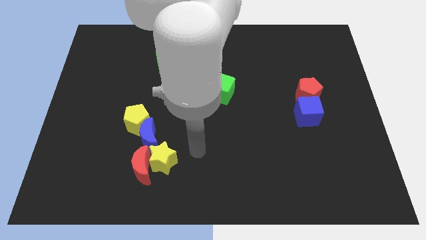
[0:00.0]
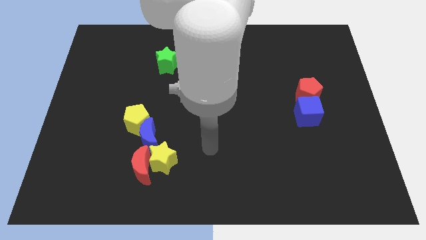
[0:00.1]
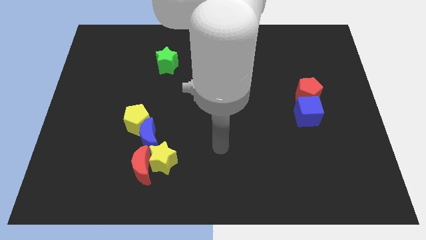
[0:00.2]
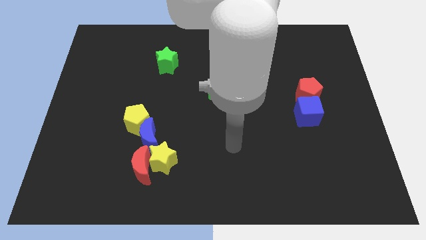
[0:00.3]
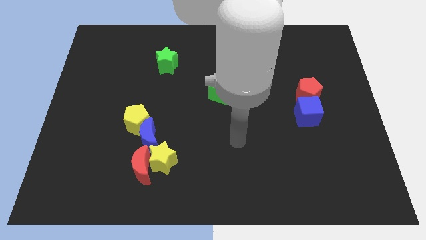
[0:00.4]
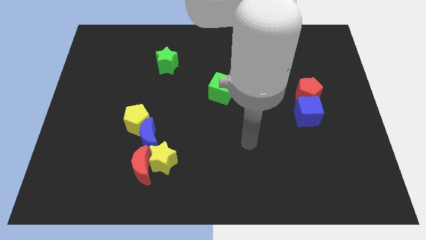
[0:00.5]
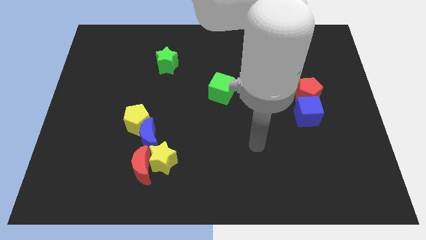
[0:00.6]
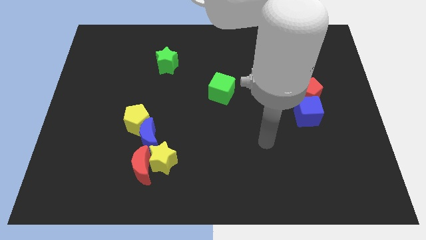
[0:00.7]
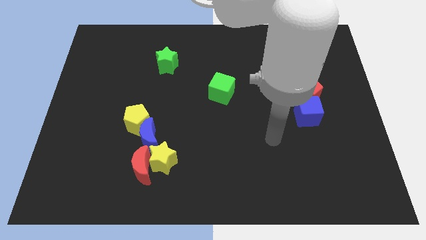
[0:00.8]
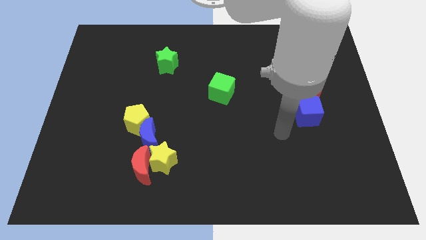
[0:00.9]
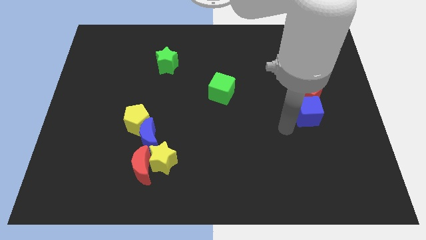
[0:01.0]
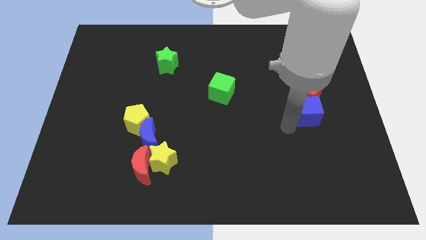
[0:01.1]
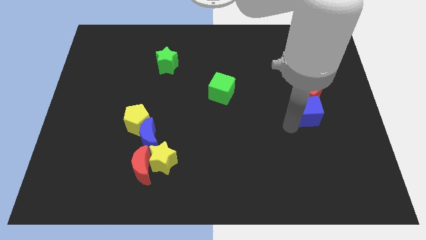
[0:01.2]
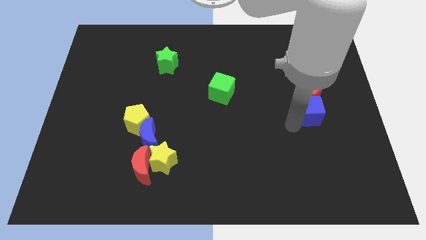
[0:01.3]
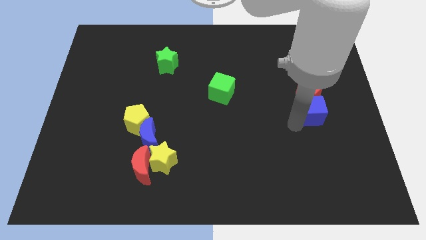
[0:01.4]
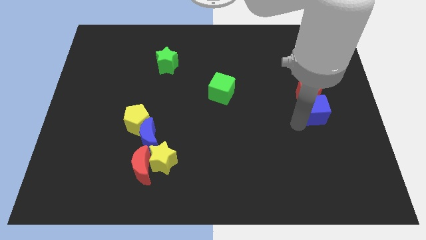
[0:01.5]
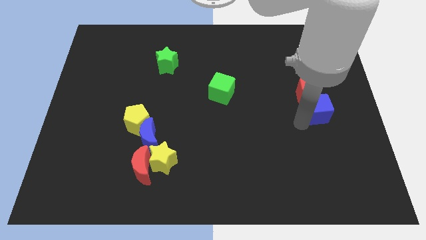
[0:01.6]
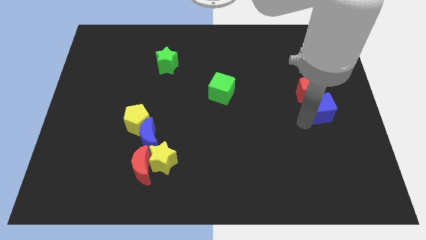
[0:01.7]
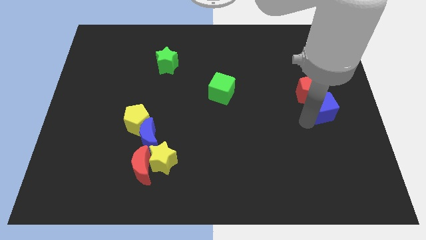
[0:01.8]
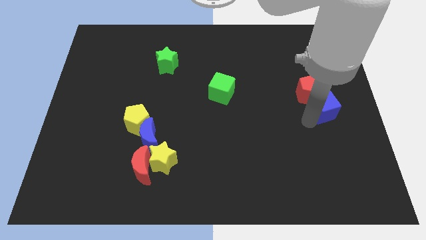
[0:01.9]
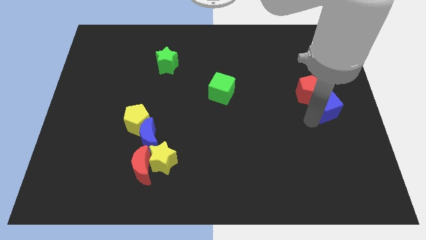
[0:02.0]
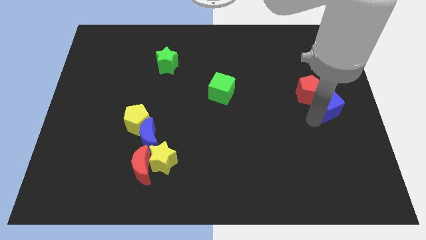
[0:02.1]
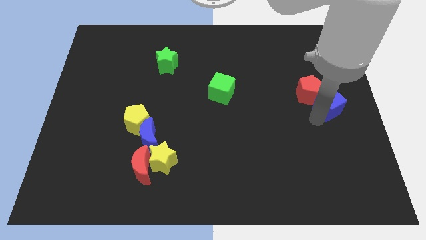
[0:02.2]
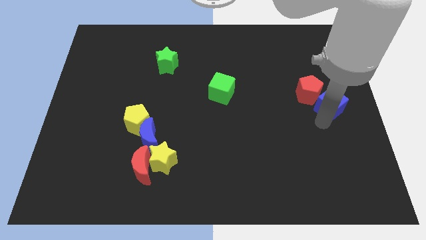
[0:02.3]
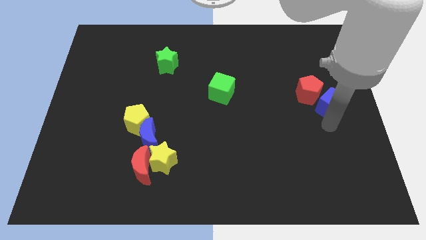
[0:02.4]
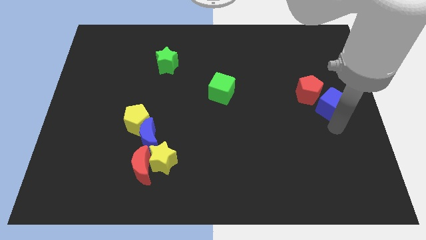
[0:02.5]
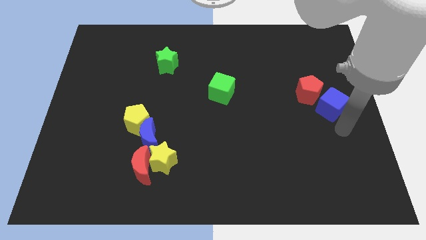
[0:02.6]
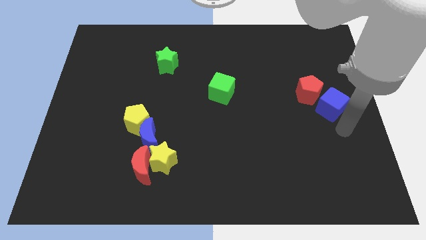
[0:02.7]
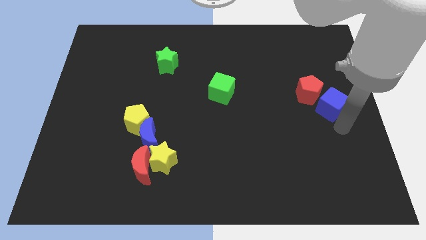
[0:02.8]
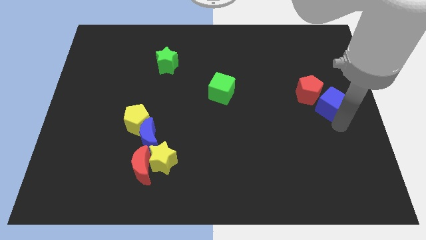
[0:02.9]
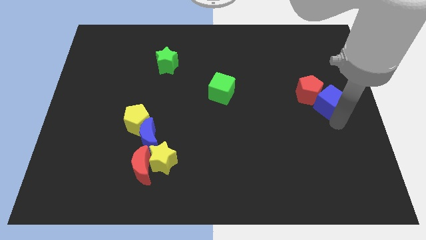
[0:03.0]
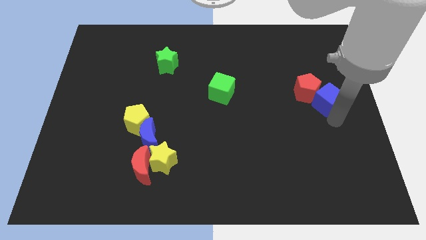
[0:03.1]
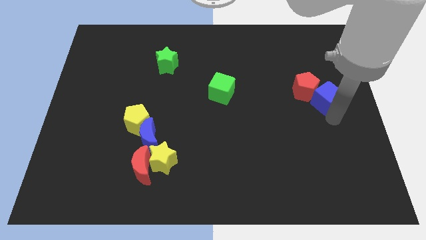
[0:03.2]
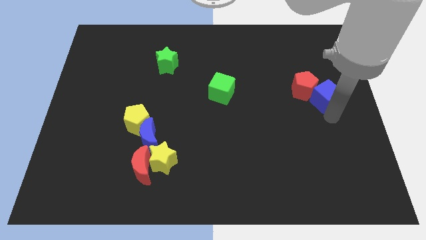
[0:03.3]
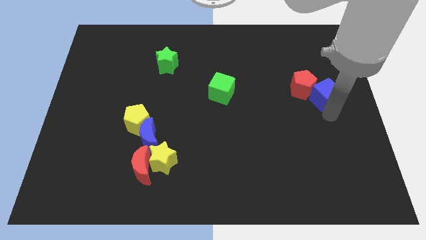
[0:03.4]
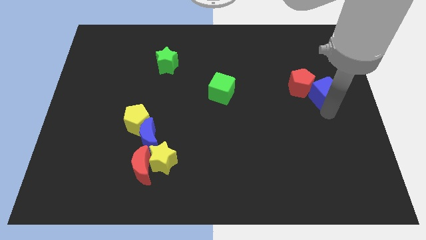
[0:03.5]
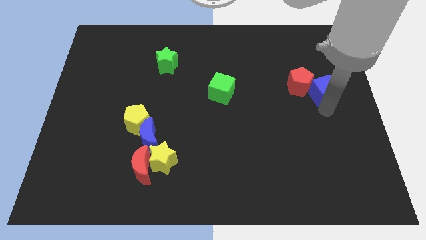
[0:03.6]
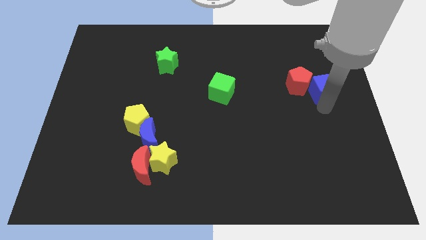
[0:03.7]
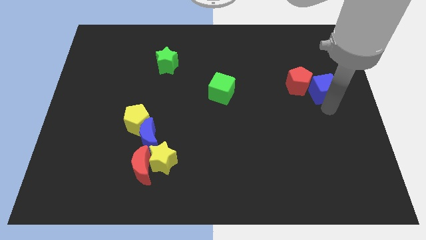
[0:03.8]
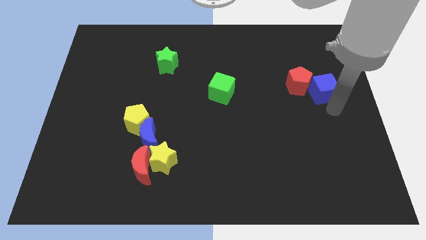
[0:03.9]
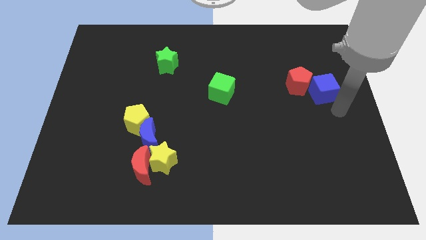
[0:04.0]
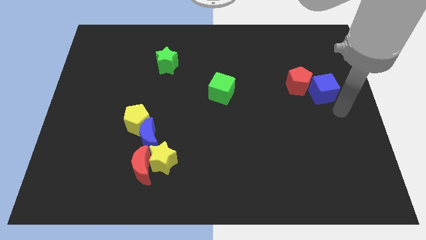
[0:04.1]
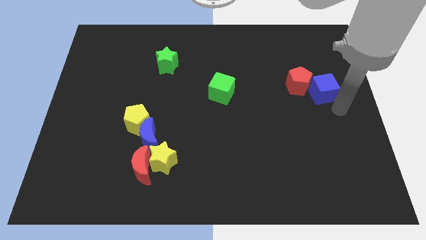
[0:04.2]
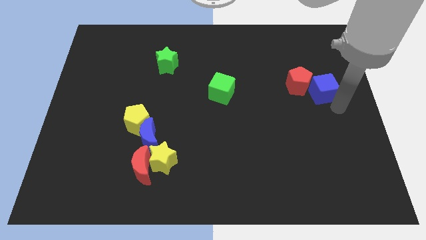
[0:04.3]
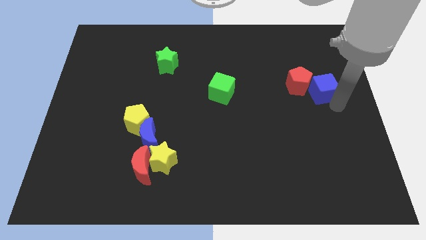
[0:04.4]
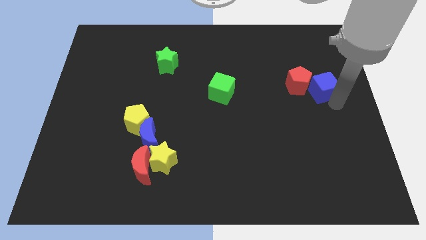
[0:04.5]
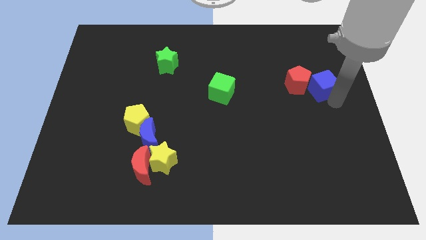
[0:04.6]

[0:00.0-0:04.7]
slide the blue cube a little bit up

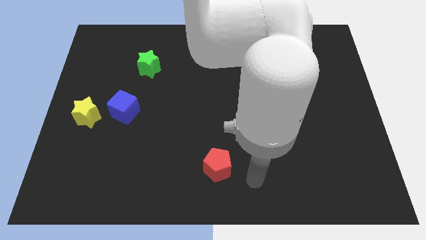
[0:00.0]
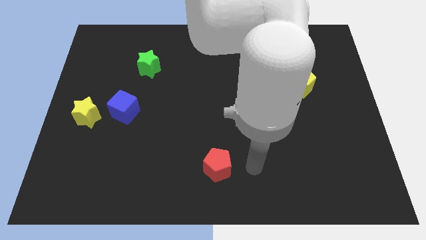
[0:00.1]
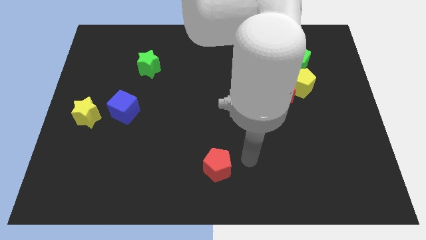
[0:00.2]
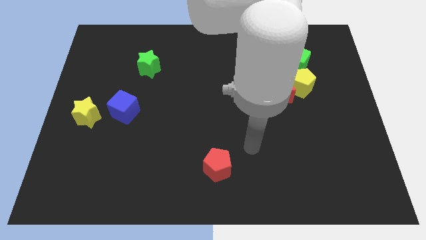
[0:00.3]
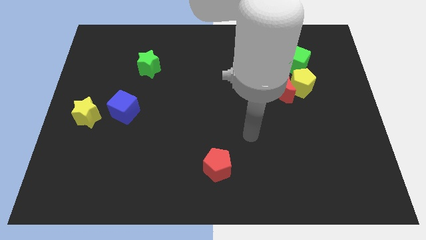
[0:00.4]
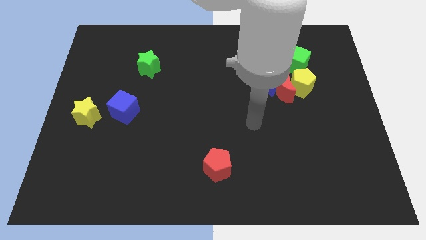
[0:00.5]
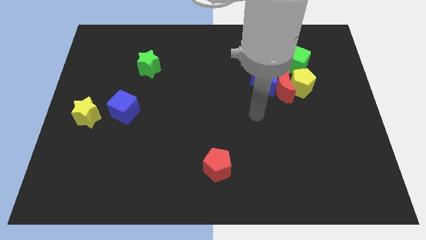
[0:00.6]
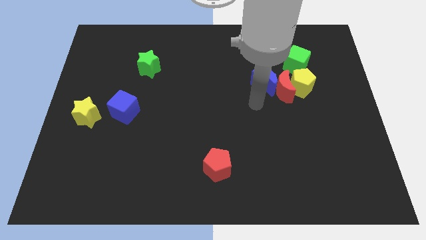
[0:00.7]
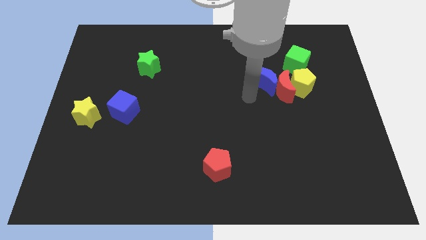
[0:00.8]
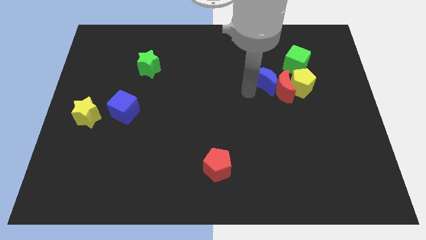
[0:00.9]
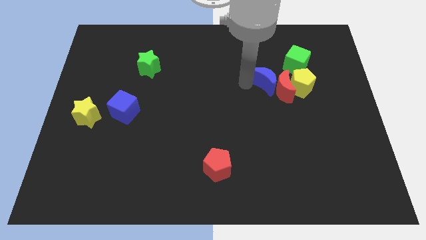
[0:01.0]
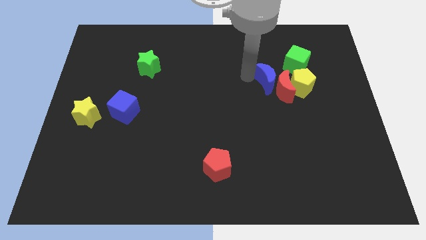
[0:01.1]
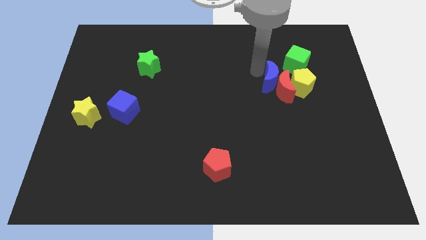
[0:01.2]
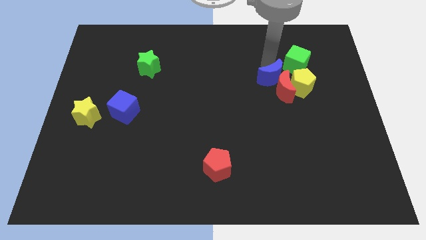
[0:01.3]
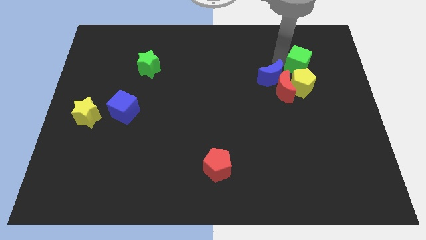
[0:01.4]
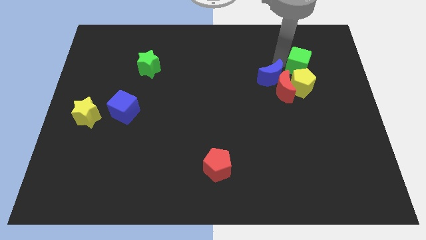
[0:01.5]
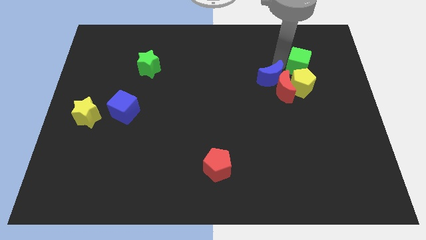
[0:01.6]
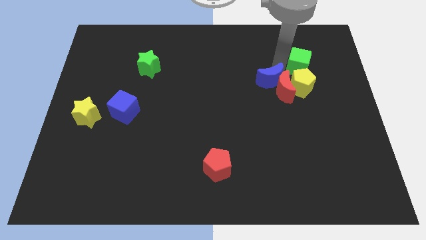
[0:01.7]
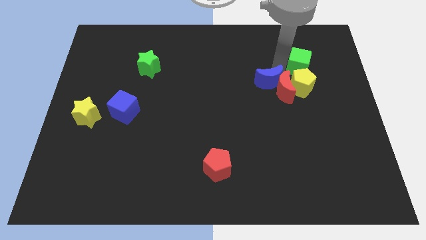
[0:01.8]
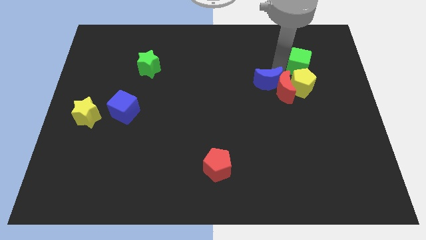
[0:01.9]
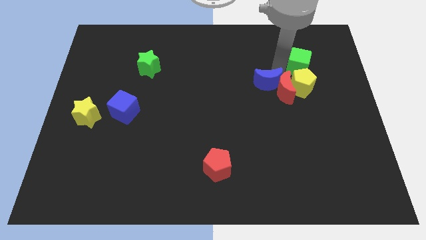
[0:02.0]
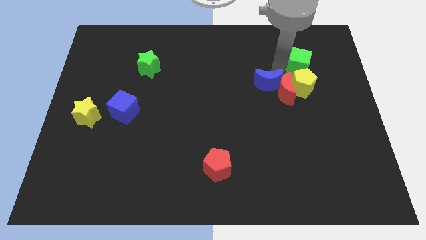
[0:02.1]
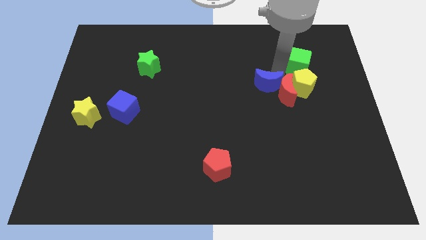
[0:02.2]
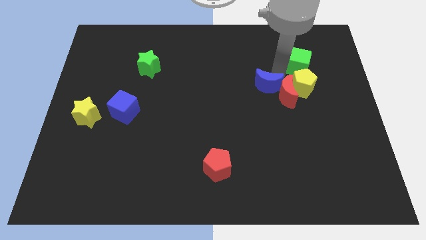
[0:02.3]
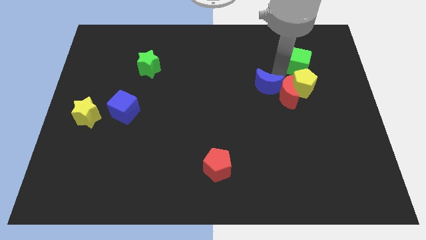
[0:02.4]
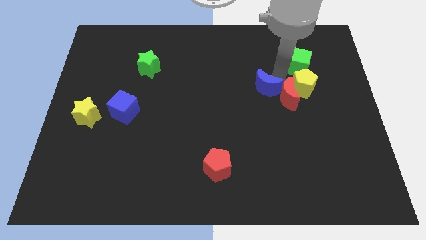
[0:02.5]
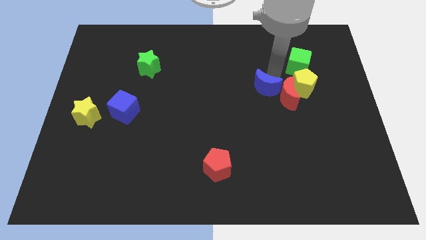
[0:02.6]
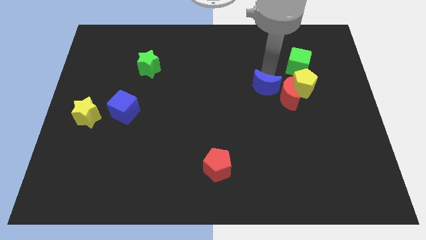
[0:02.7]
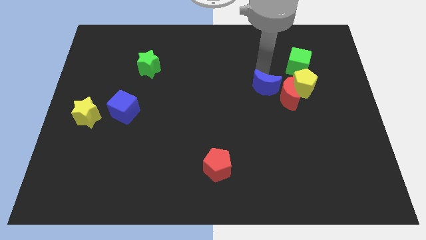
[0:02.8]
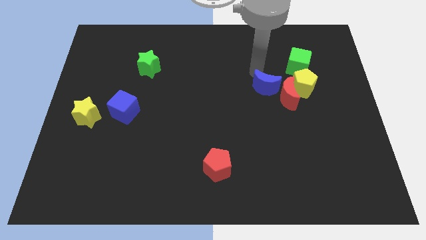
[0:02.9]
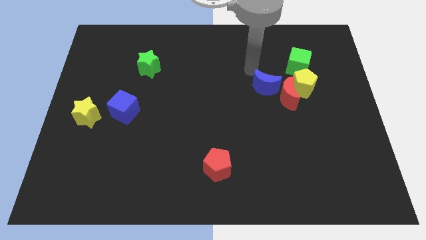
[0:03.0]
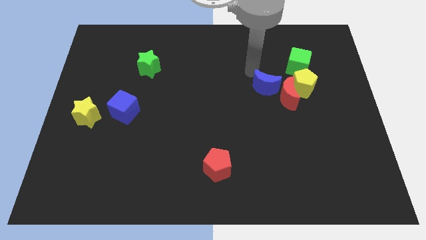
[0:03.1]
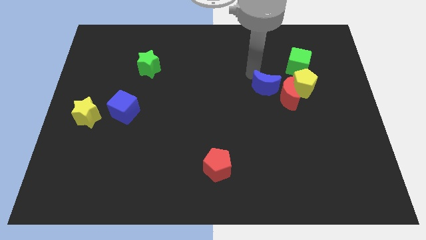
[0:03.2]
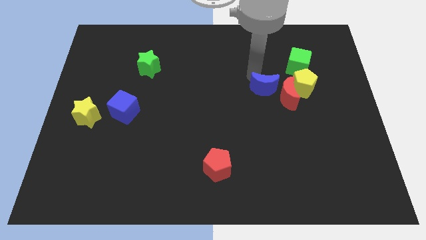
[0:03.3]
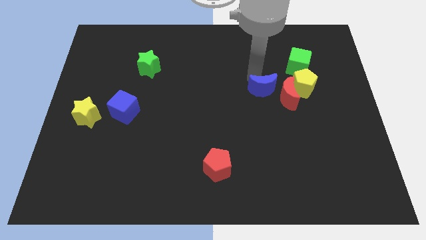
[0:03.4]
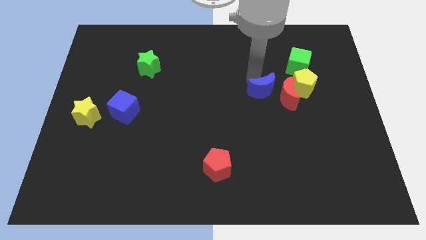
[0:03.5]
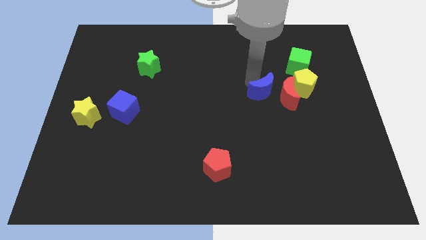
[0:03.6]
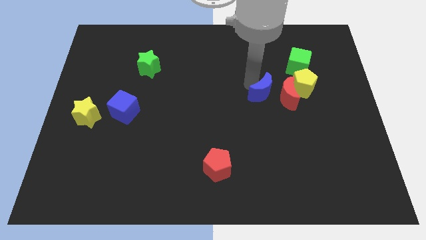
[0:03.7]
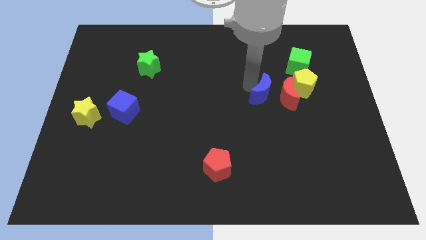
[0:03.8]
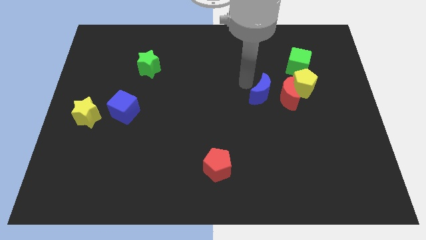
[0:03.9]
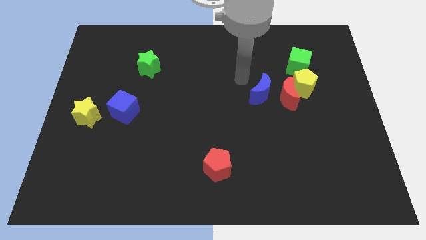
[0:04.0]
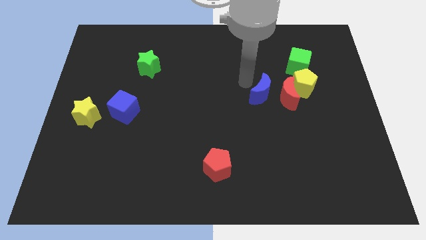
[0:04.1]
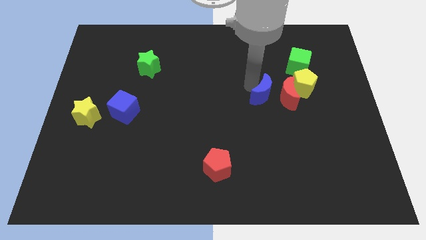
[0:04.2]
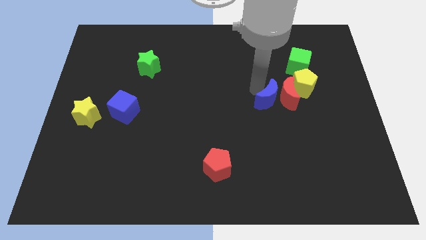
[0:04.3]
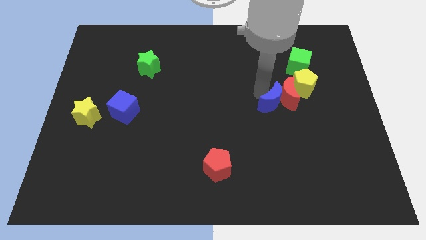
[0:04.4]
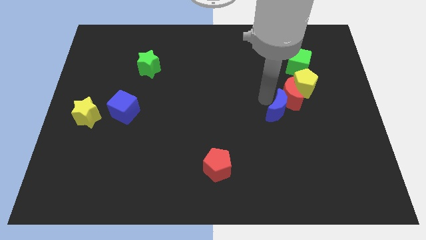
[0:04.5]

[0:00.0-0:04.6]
move the blue moon a bit diagonally down and to the right
